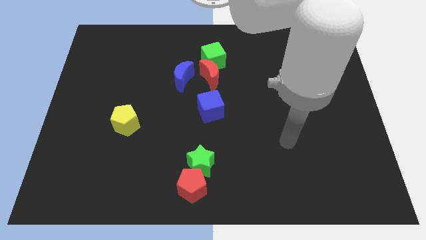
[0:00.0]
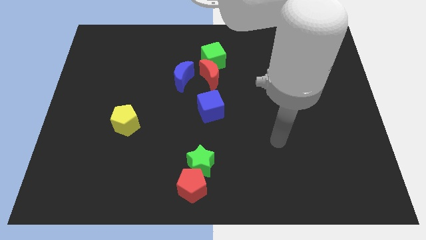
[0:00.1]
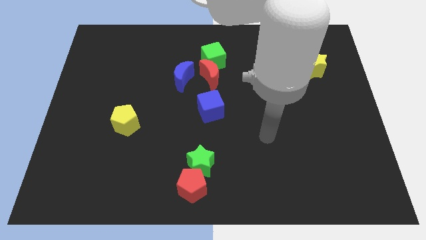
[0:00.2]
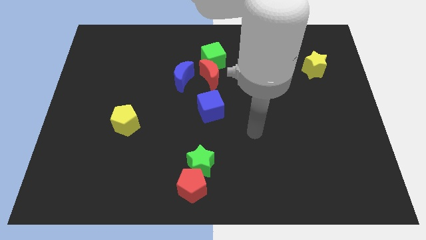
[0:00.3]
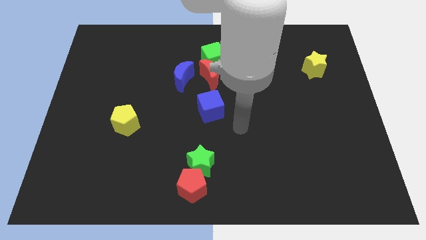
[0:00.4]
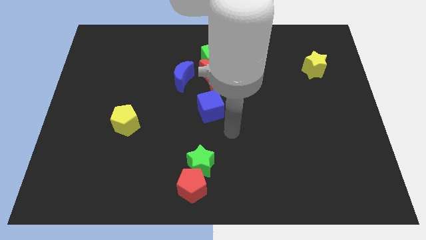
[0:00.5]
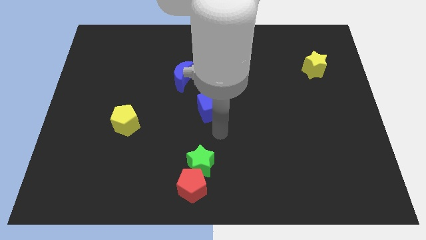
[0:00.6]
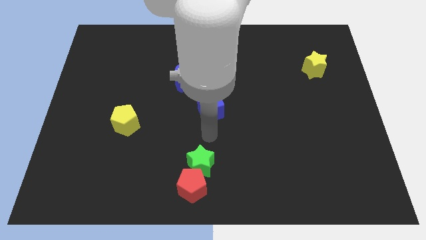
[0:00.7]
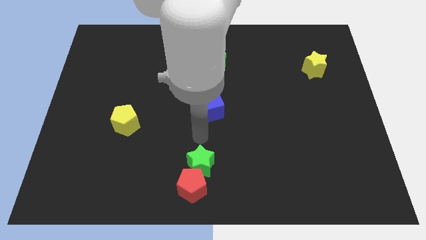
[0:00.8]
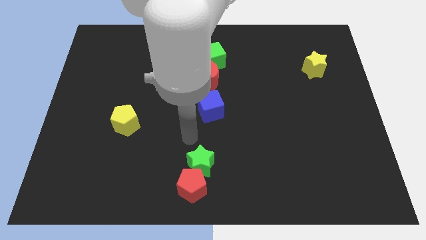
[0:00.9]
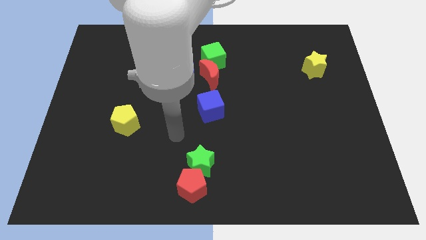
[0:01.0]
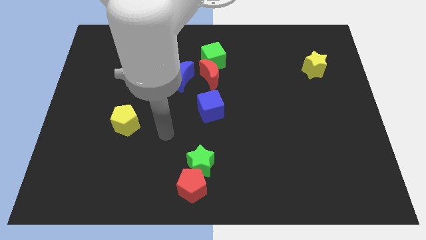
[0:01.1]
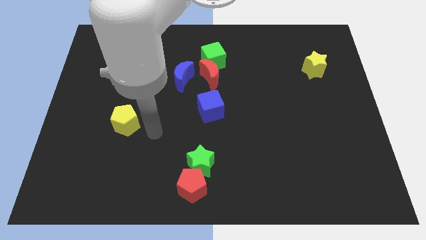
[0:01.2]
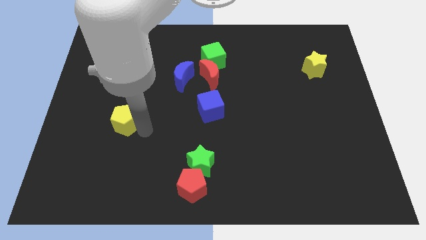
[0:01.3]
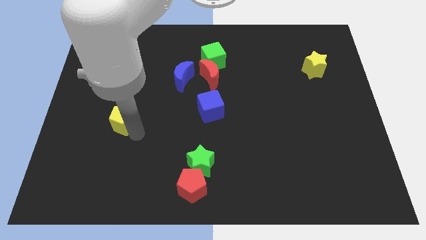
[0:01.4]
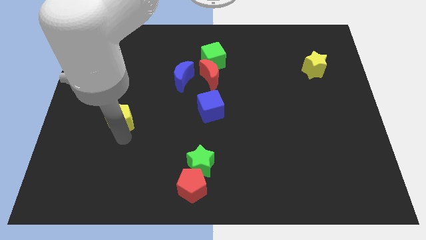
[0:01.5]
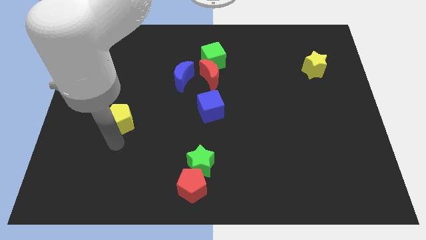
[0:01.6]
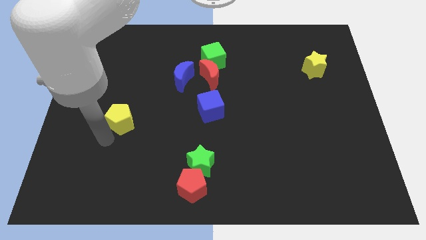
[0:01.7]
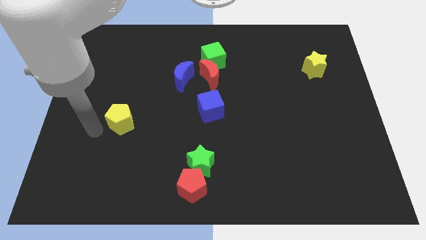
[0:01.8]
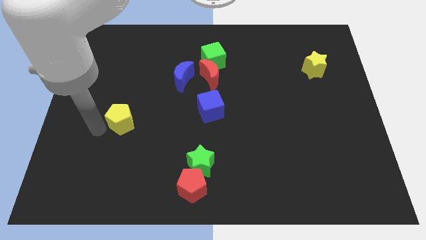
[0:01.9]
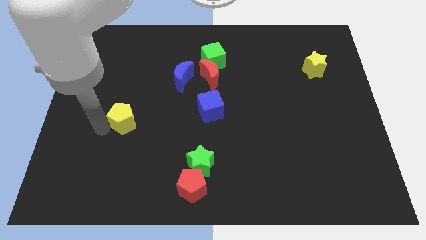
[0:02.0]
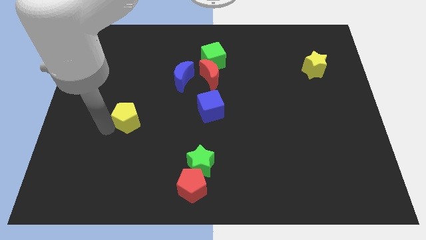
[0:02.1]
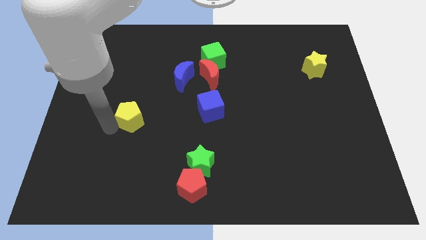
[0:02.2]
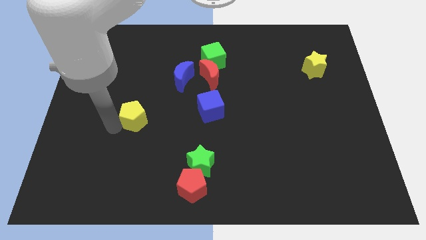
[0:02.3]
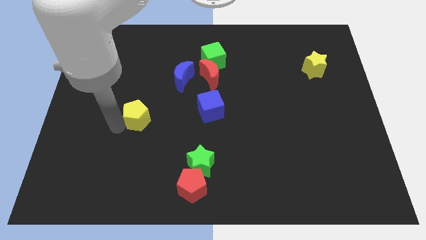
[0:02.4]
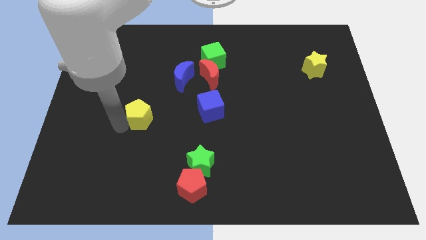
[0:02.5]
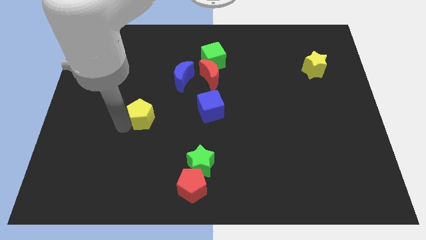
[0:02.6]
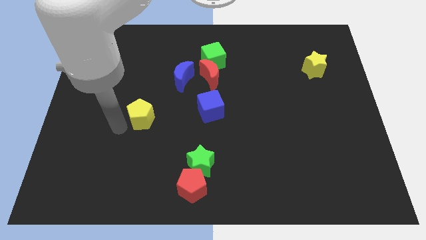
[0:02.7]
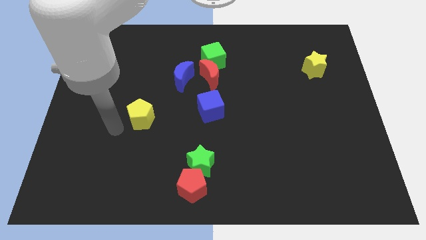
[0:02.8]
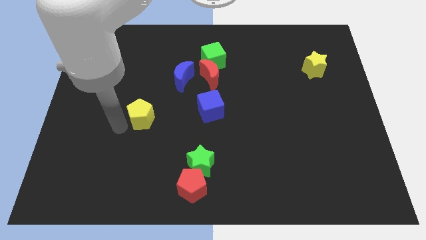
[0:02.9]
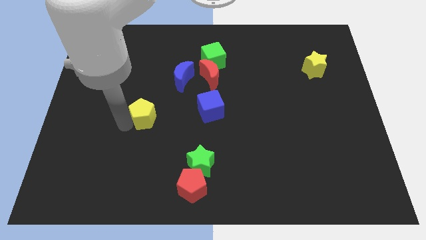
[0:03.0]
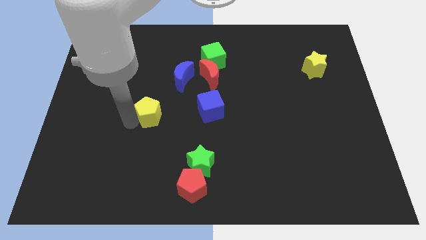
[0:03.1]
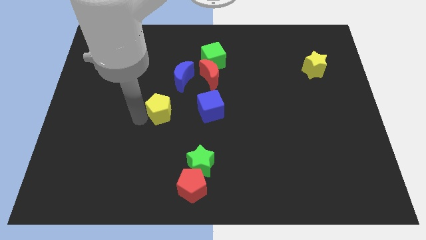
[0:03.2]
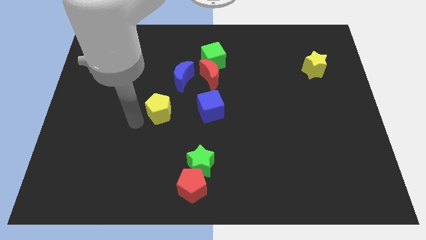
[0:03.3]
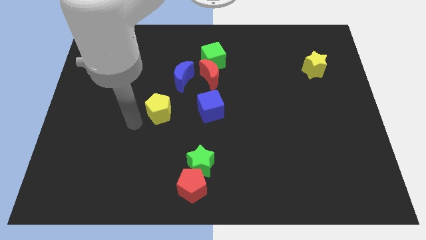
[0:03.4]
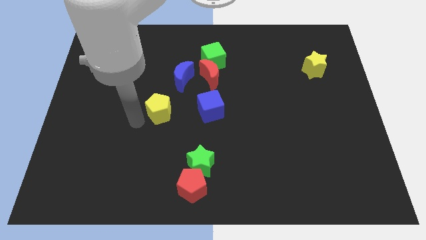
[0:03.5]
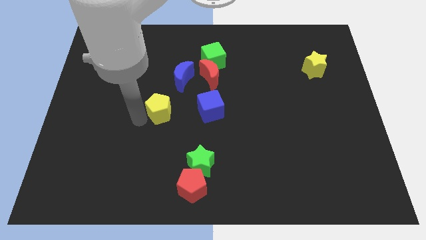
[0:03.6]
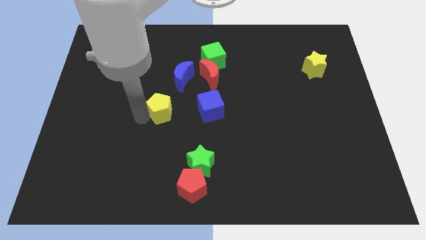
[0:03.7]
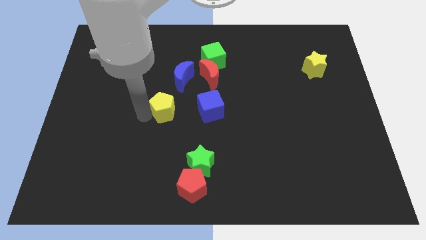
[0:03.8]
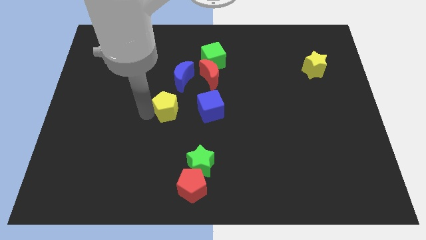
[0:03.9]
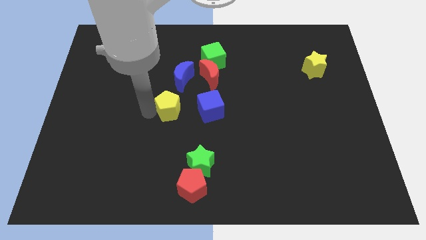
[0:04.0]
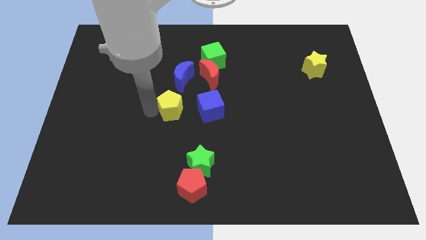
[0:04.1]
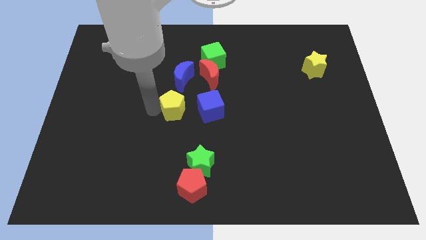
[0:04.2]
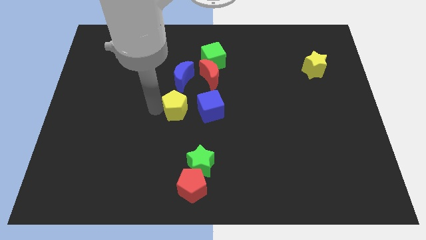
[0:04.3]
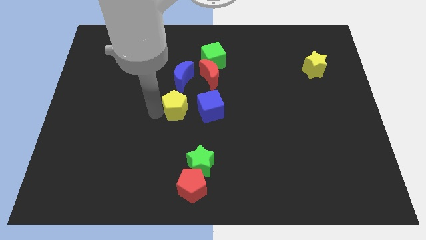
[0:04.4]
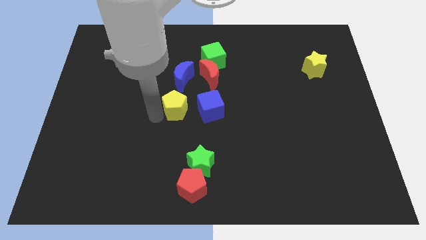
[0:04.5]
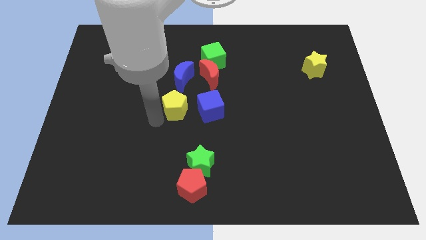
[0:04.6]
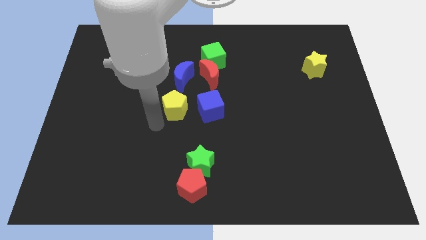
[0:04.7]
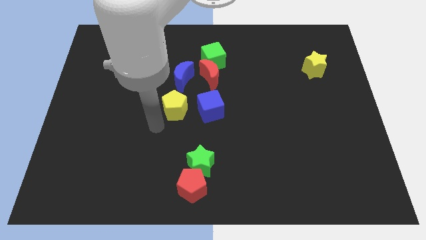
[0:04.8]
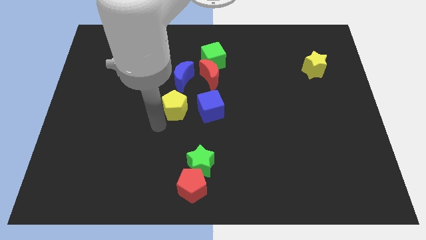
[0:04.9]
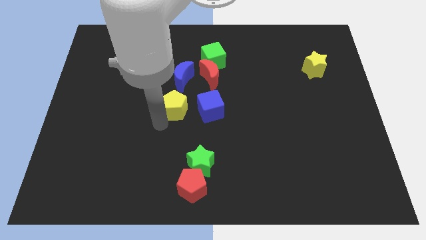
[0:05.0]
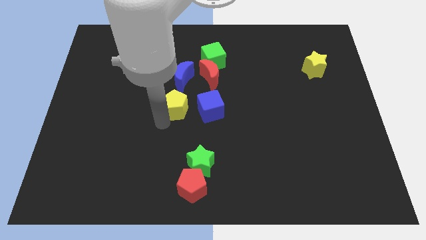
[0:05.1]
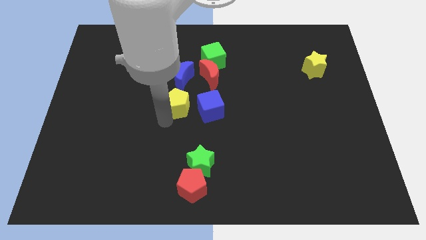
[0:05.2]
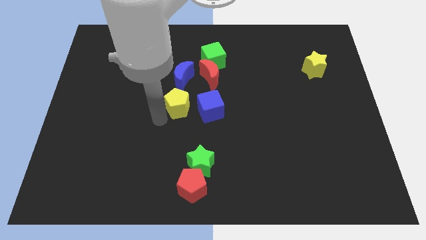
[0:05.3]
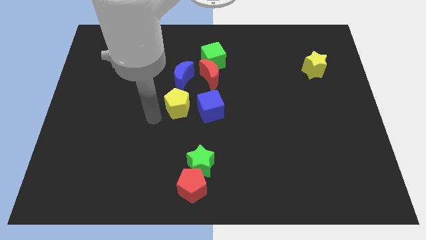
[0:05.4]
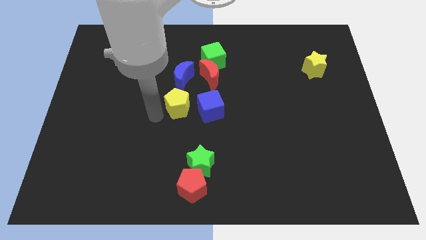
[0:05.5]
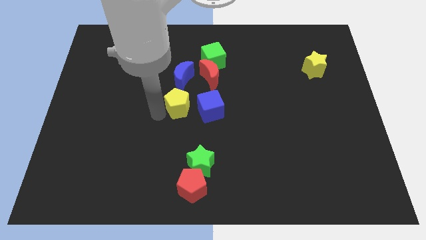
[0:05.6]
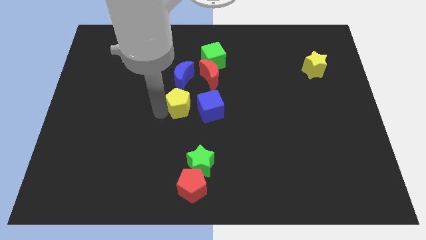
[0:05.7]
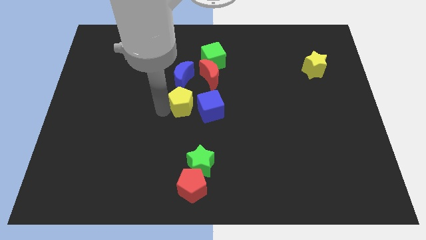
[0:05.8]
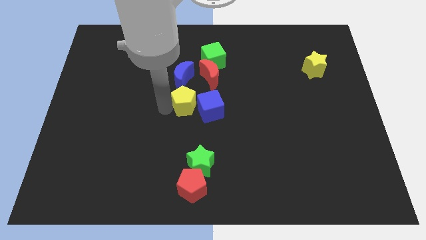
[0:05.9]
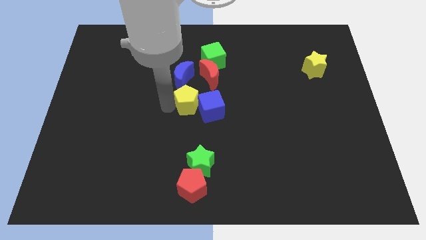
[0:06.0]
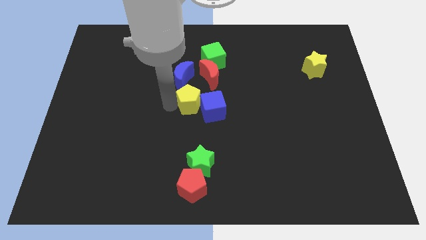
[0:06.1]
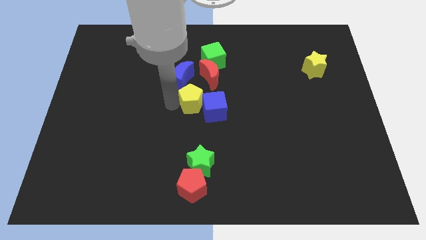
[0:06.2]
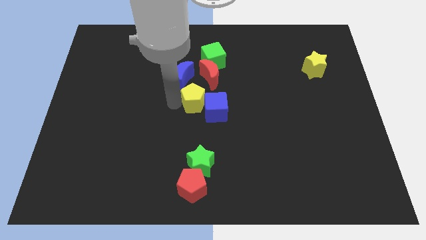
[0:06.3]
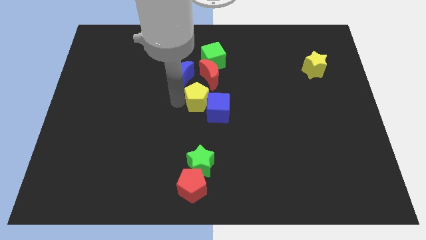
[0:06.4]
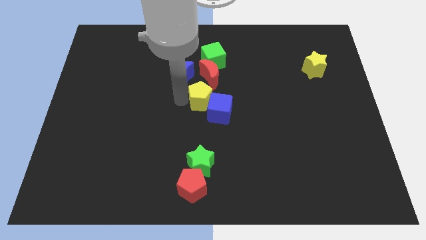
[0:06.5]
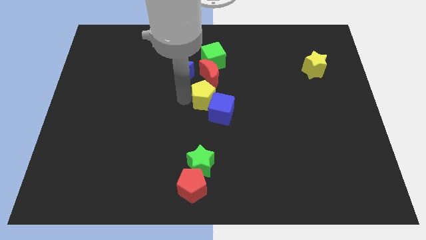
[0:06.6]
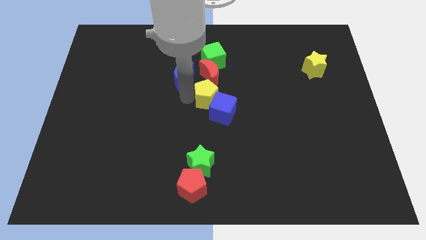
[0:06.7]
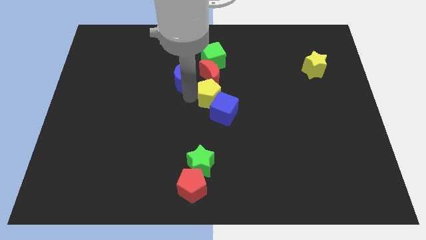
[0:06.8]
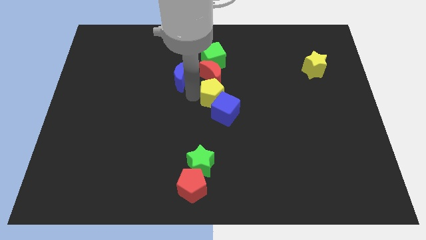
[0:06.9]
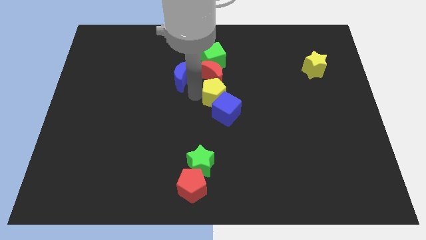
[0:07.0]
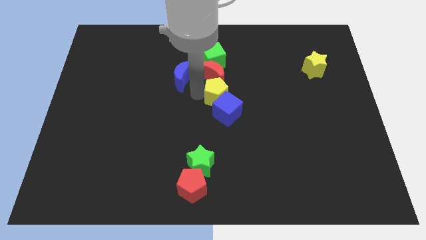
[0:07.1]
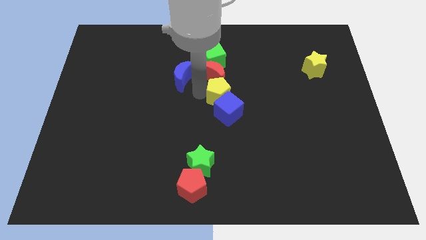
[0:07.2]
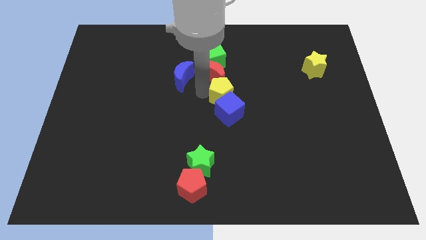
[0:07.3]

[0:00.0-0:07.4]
push the yellow pentagon to the right side of the blue moon

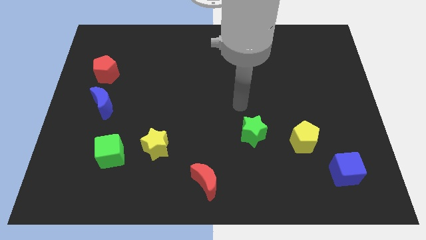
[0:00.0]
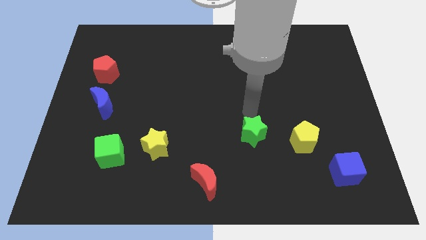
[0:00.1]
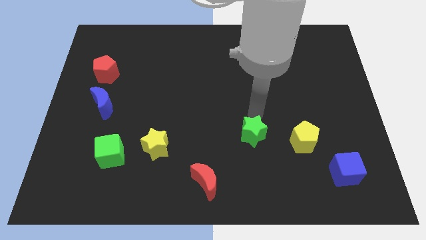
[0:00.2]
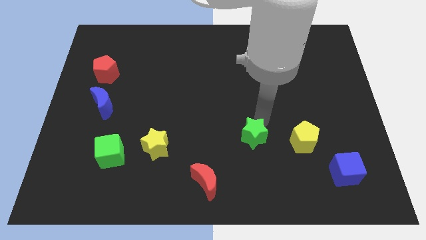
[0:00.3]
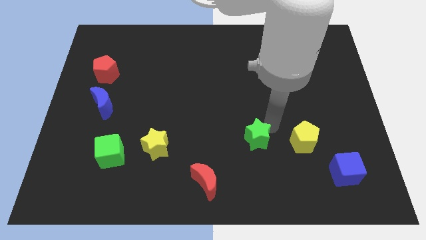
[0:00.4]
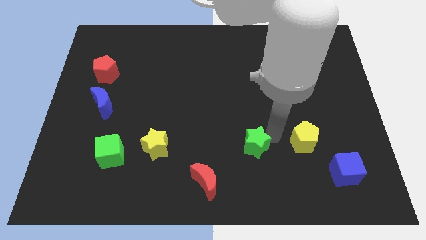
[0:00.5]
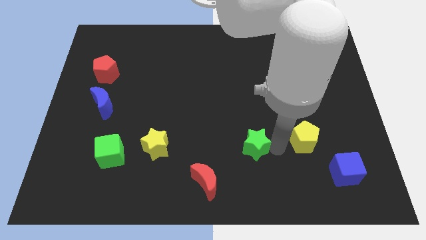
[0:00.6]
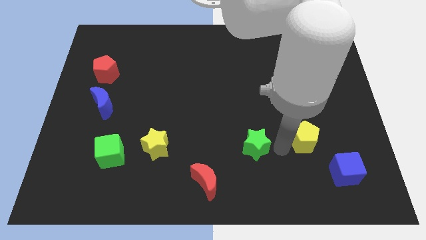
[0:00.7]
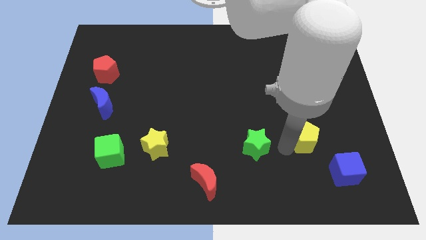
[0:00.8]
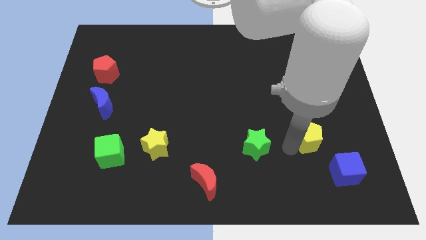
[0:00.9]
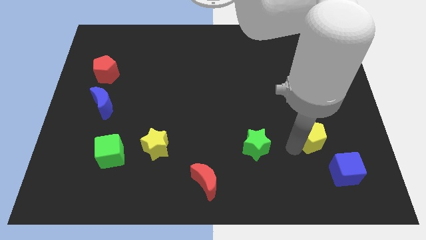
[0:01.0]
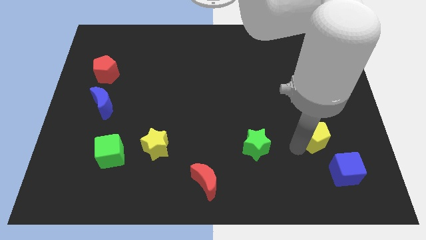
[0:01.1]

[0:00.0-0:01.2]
move the yellow pentagon to the top of the blue cube
